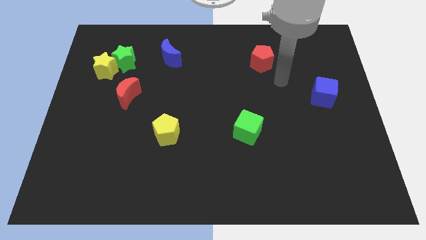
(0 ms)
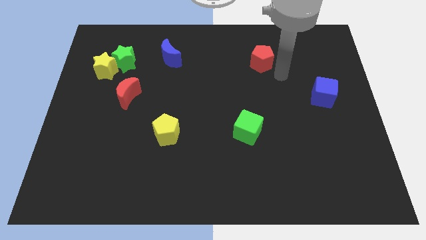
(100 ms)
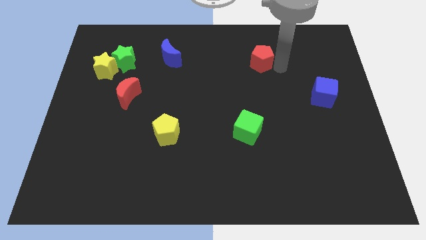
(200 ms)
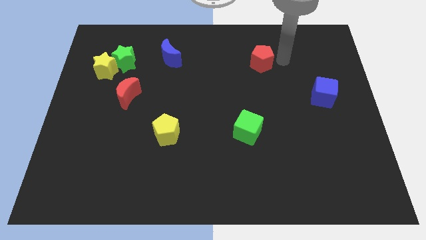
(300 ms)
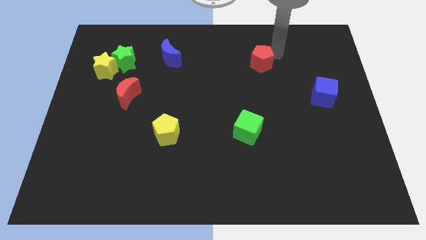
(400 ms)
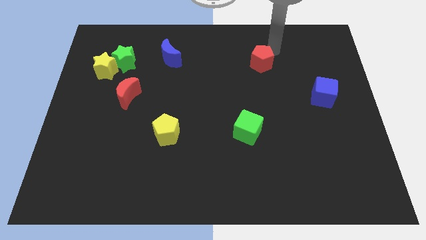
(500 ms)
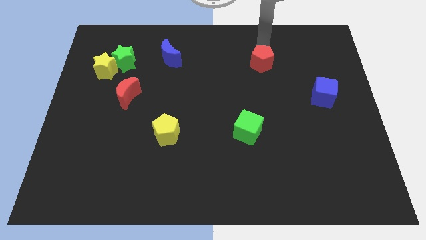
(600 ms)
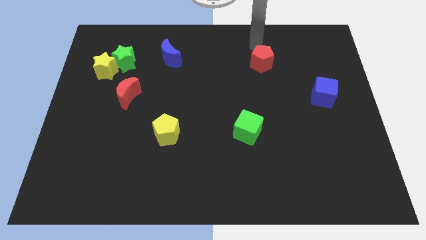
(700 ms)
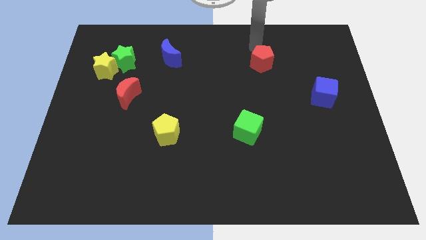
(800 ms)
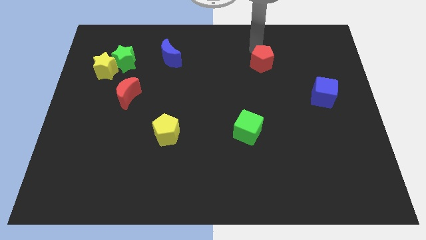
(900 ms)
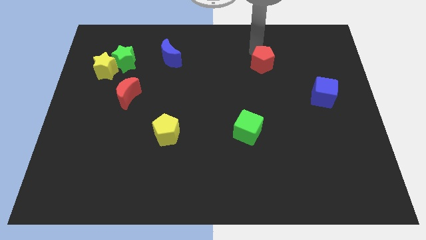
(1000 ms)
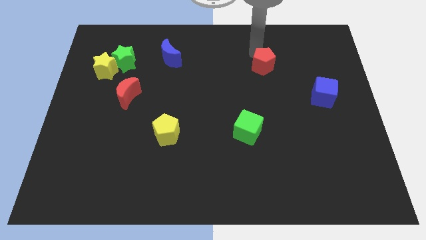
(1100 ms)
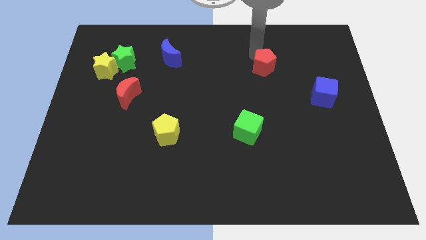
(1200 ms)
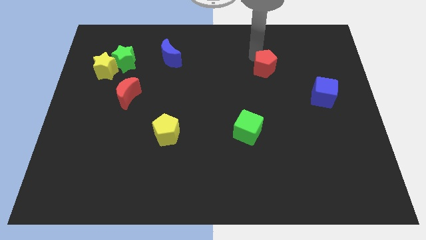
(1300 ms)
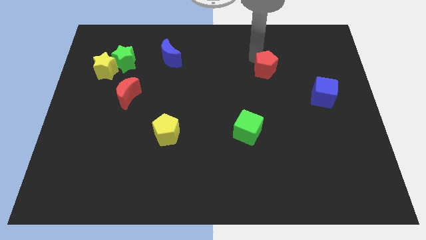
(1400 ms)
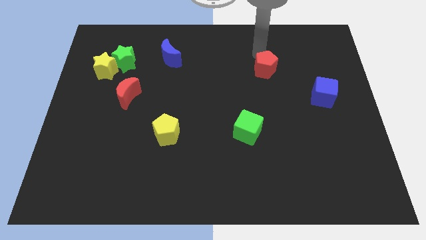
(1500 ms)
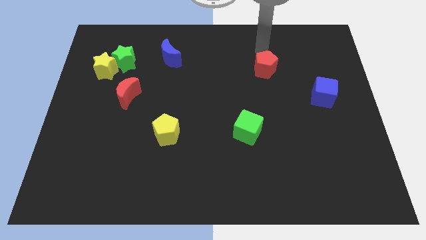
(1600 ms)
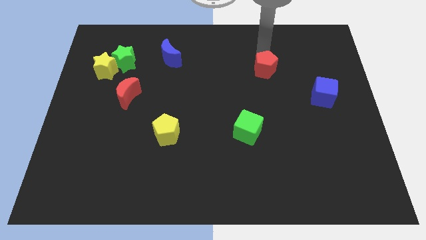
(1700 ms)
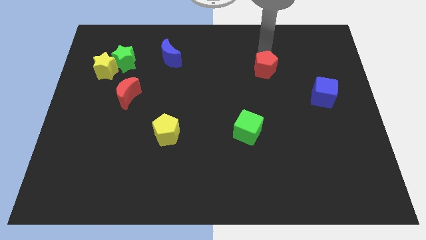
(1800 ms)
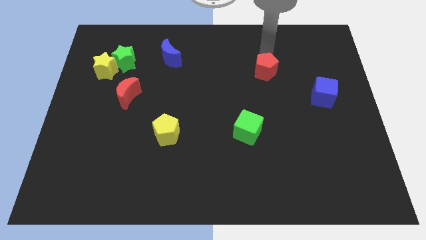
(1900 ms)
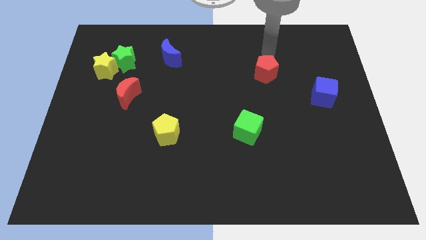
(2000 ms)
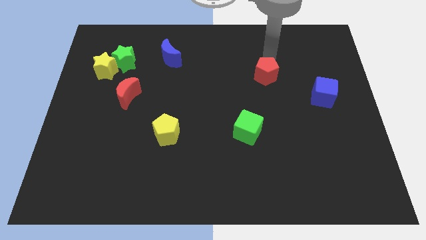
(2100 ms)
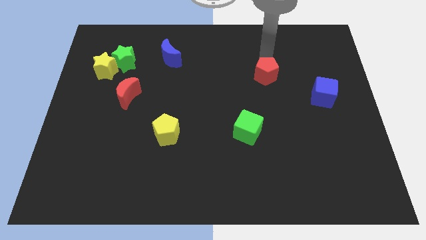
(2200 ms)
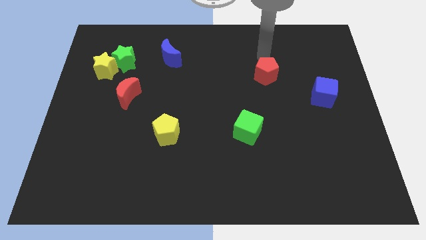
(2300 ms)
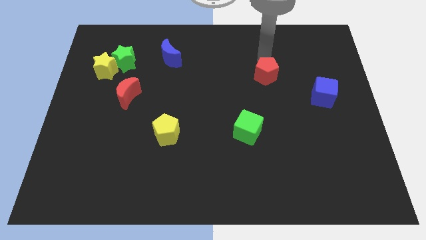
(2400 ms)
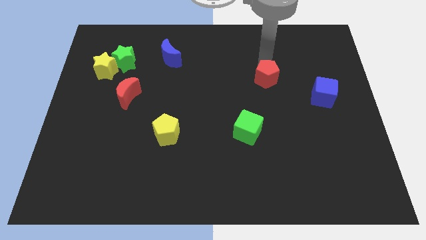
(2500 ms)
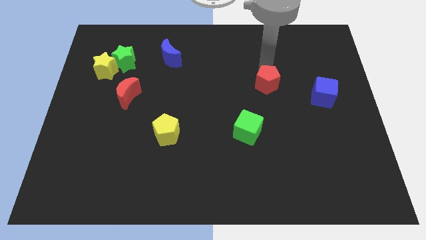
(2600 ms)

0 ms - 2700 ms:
slightly push the red pentagon down

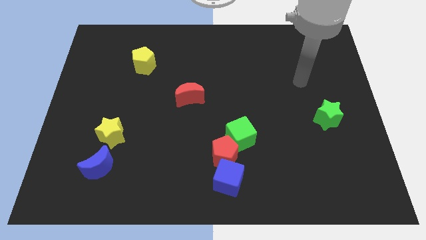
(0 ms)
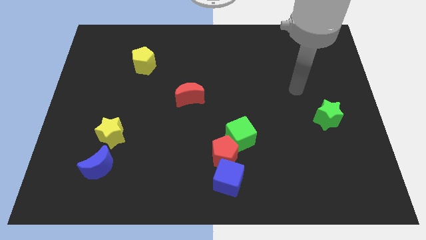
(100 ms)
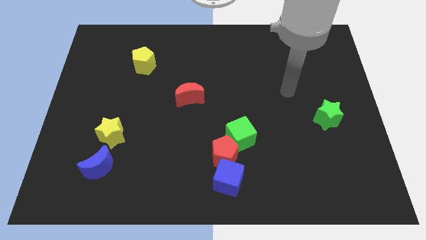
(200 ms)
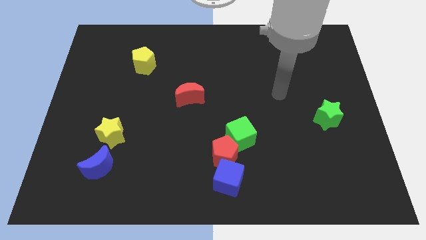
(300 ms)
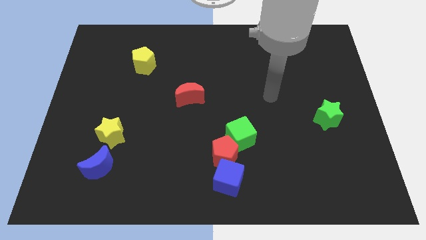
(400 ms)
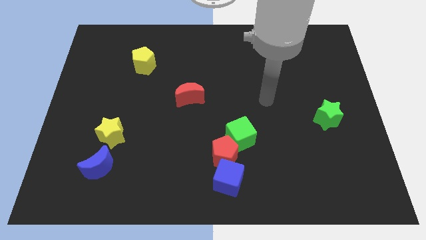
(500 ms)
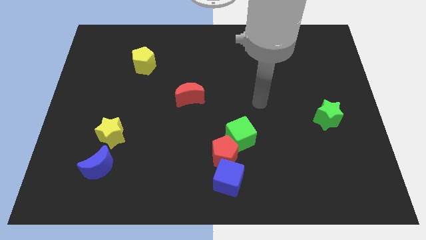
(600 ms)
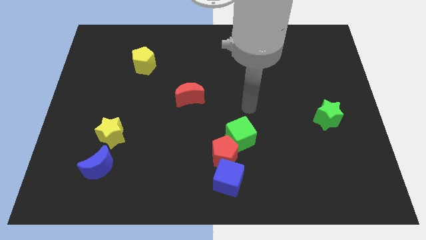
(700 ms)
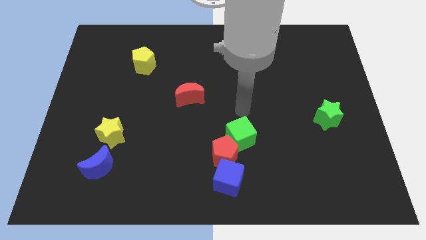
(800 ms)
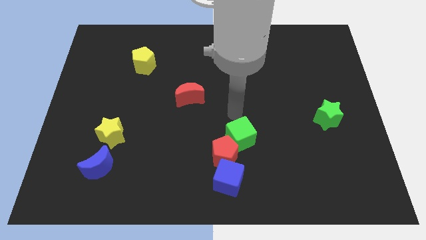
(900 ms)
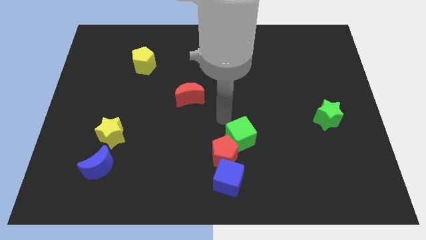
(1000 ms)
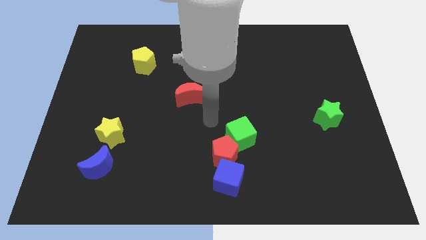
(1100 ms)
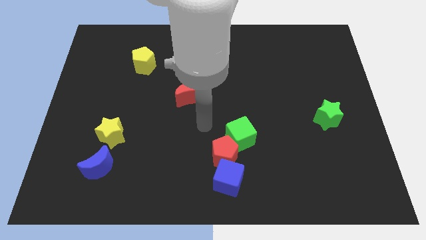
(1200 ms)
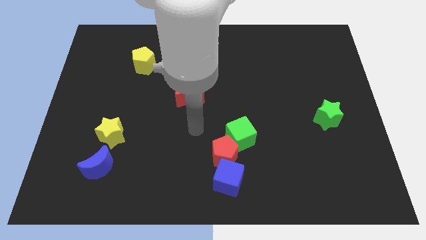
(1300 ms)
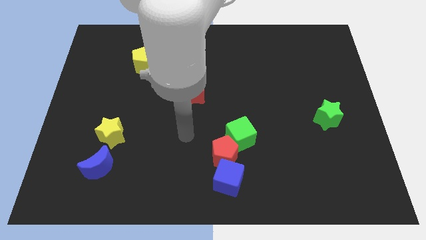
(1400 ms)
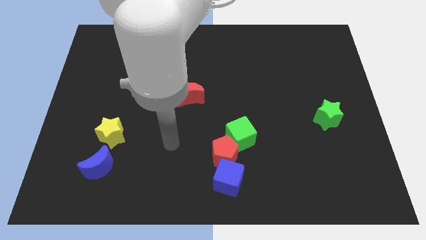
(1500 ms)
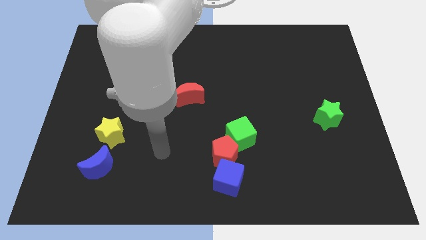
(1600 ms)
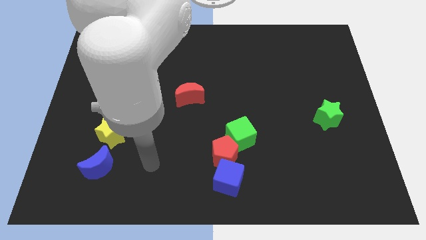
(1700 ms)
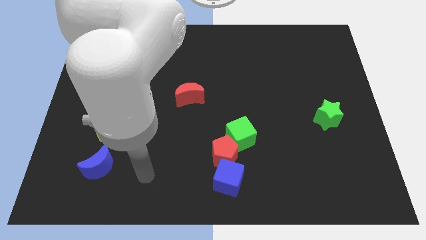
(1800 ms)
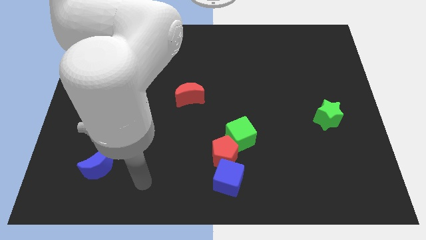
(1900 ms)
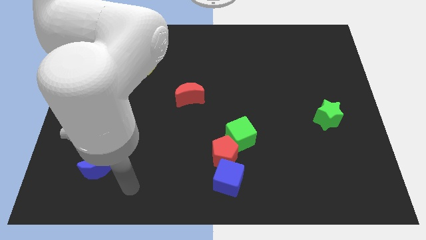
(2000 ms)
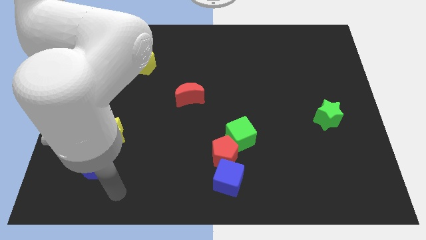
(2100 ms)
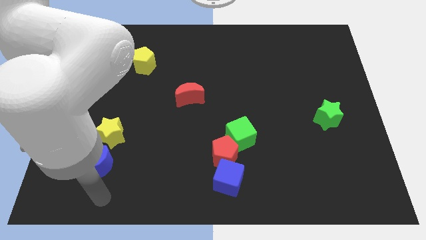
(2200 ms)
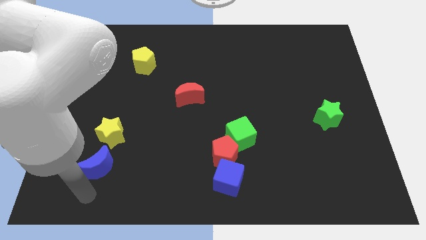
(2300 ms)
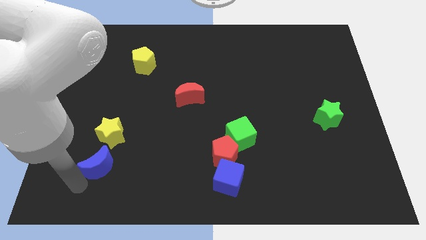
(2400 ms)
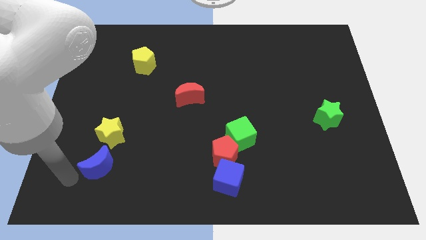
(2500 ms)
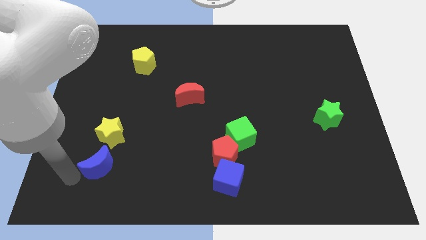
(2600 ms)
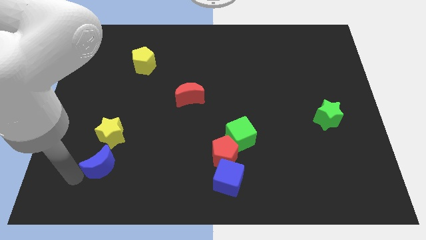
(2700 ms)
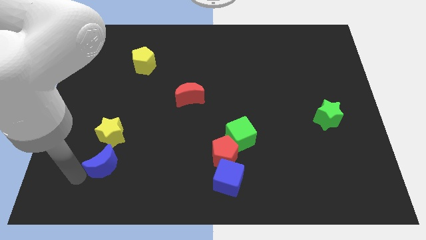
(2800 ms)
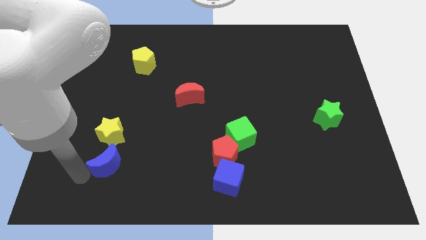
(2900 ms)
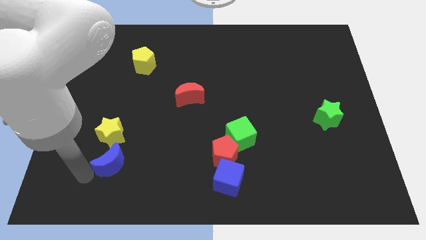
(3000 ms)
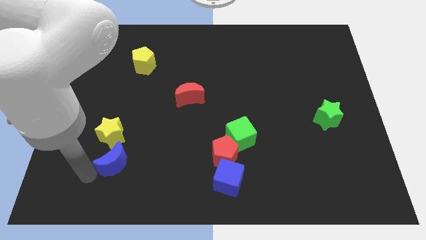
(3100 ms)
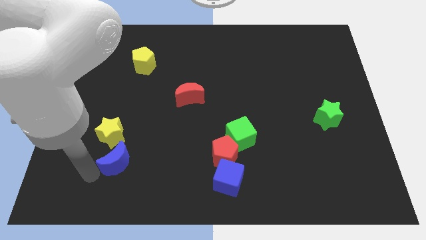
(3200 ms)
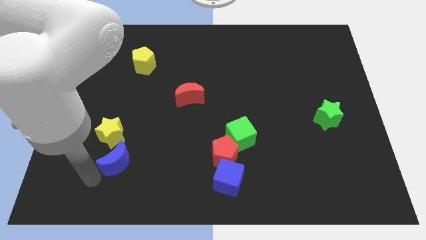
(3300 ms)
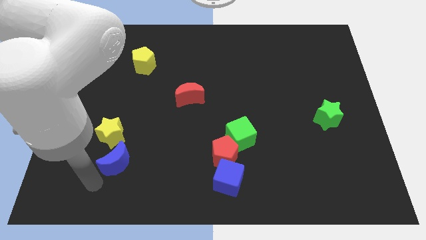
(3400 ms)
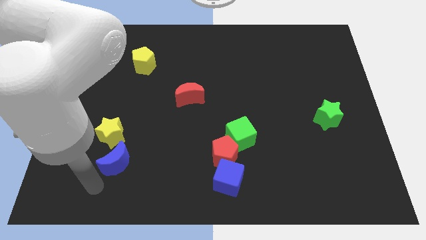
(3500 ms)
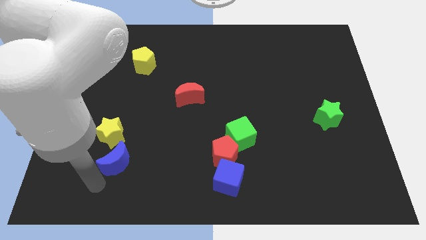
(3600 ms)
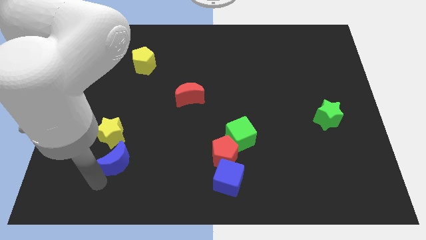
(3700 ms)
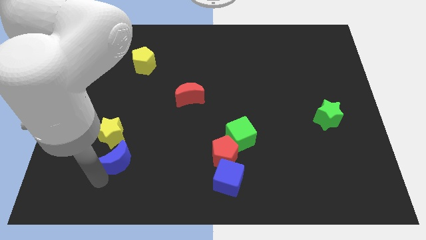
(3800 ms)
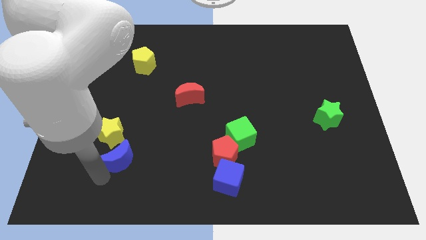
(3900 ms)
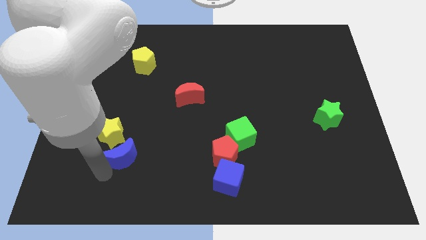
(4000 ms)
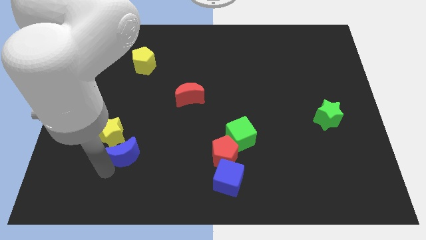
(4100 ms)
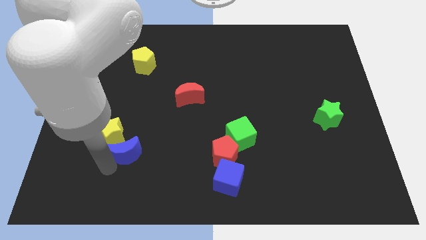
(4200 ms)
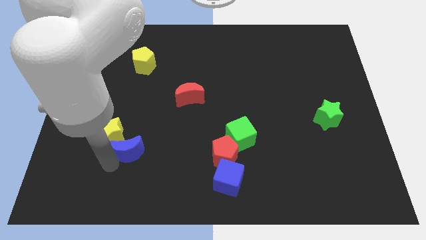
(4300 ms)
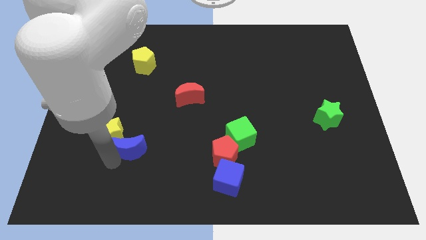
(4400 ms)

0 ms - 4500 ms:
push the blue moon a little bit up and to the right

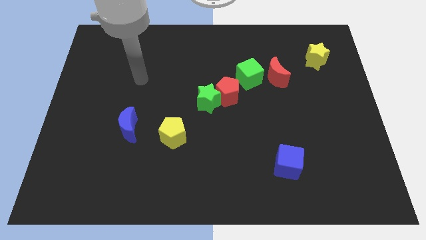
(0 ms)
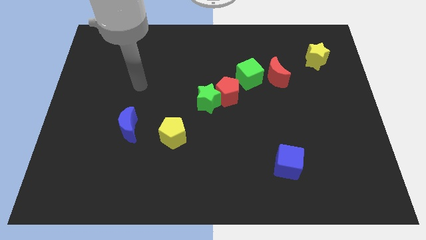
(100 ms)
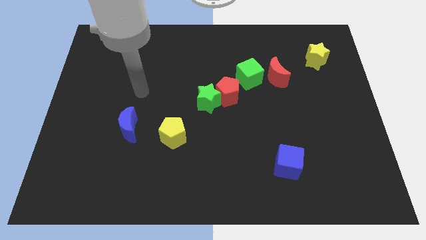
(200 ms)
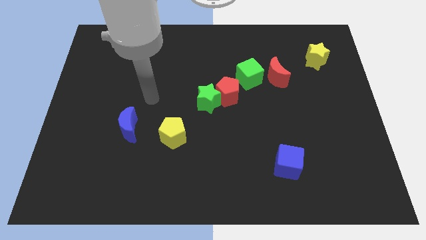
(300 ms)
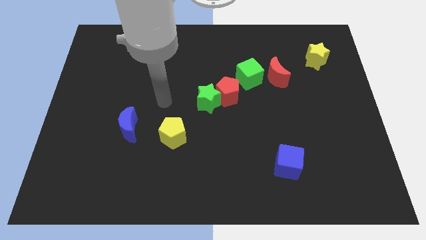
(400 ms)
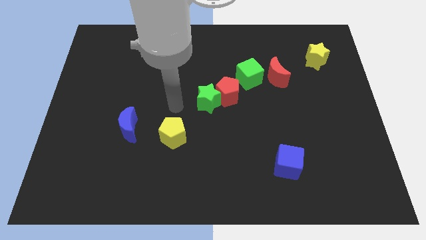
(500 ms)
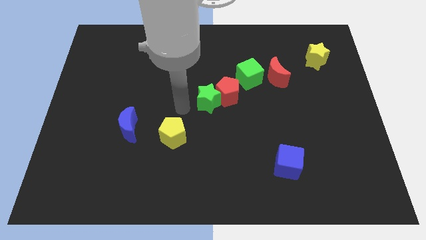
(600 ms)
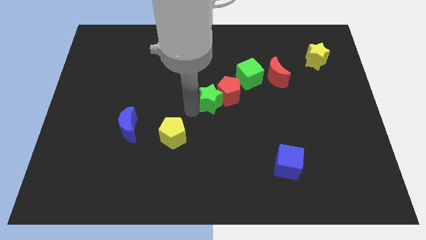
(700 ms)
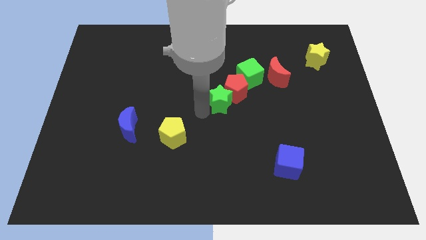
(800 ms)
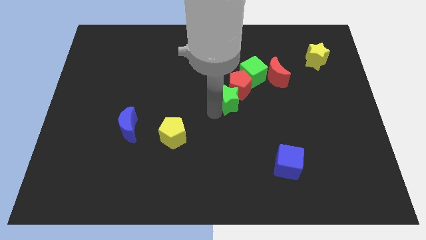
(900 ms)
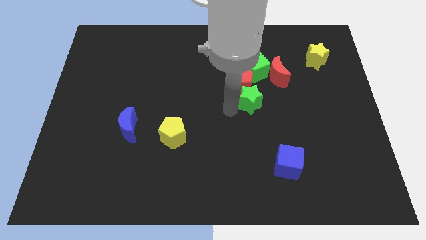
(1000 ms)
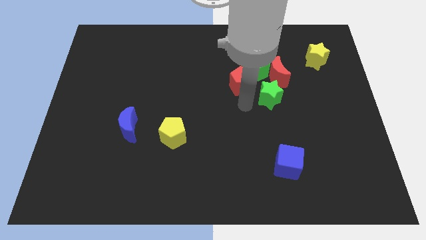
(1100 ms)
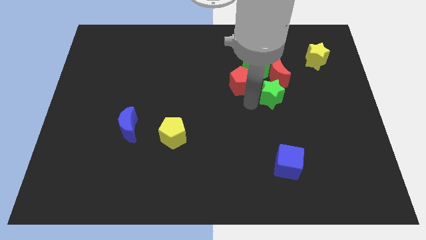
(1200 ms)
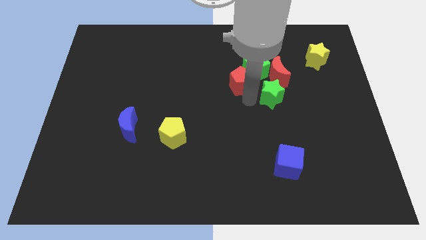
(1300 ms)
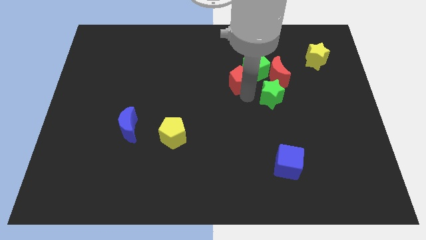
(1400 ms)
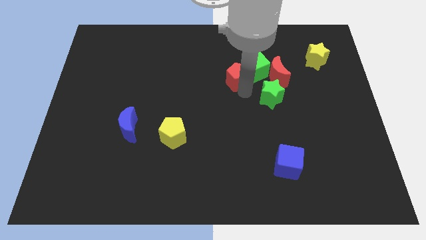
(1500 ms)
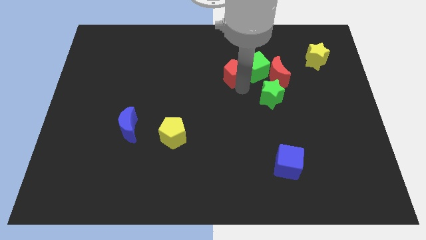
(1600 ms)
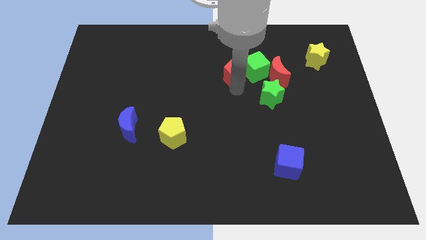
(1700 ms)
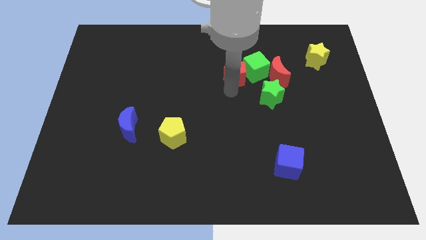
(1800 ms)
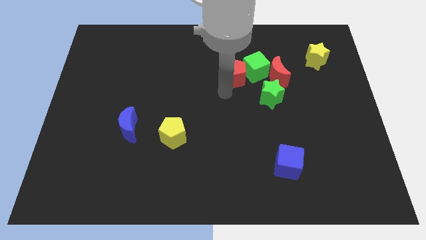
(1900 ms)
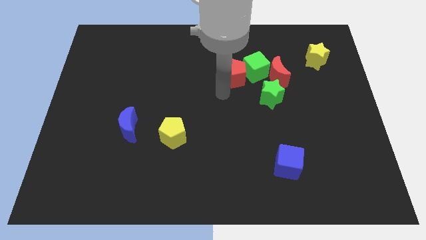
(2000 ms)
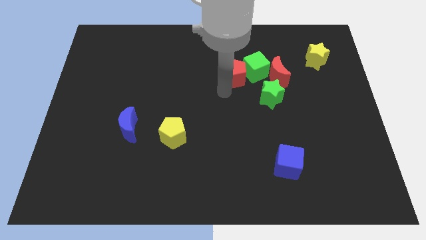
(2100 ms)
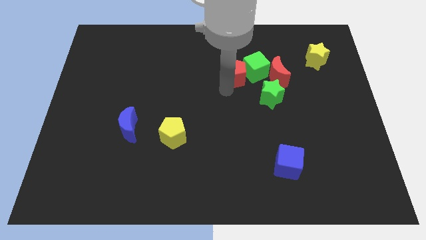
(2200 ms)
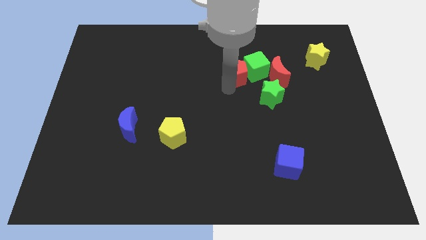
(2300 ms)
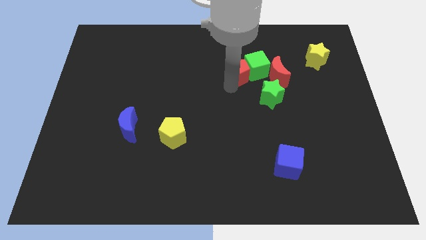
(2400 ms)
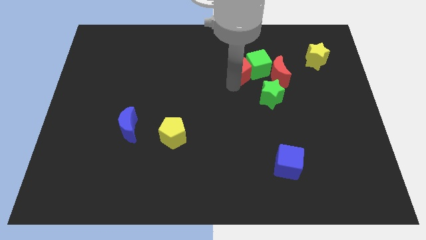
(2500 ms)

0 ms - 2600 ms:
slightly move the red pentagon up and then right
